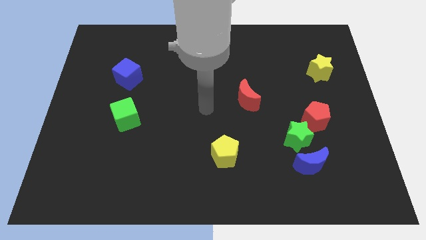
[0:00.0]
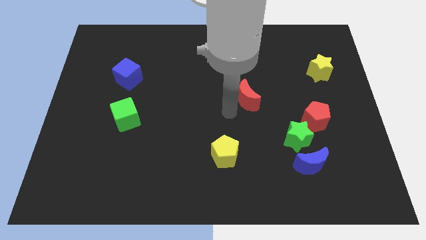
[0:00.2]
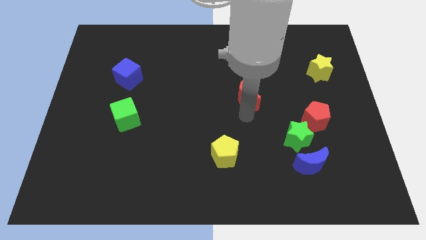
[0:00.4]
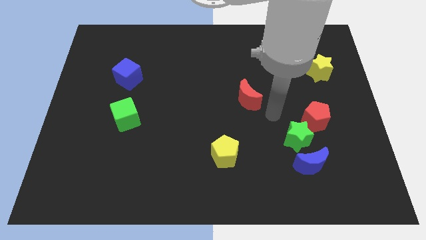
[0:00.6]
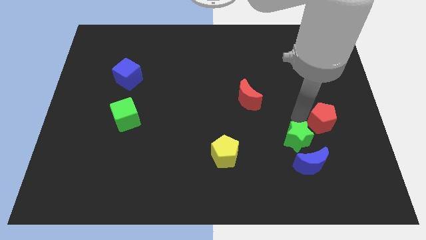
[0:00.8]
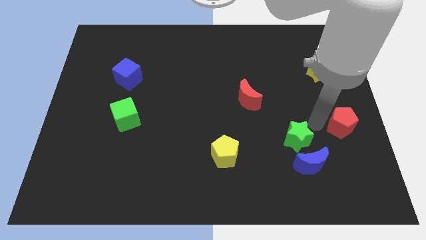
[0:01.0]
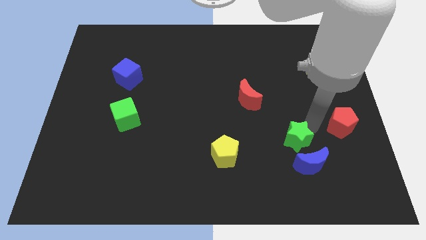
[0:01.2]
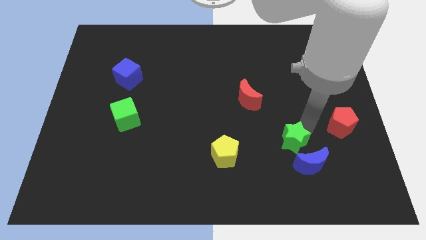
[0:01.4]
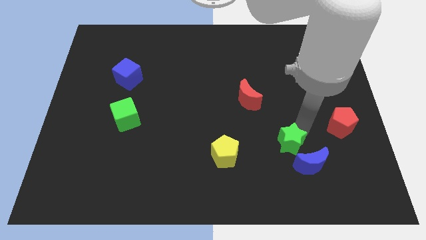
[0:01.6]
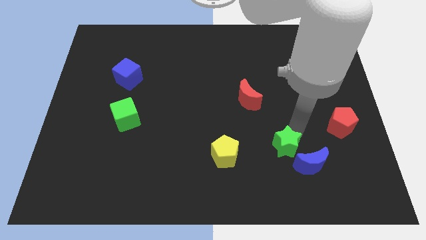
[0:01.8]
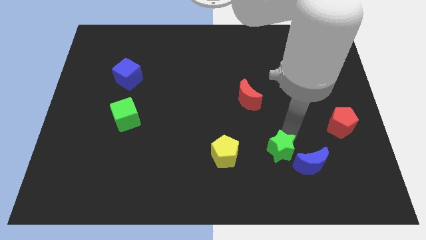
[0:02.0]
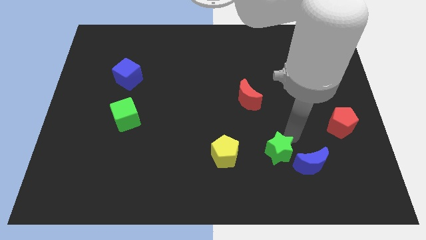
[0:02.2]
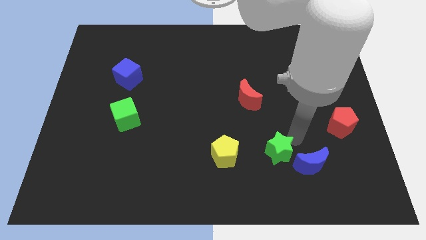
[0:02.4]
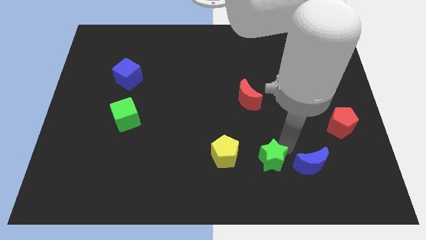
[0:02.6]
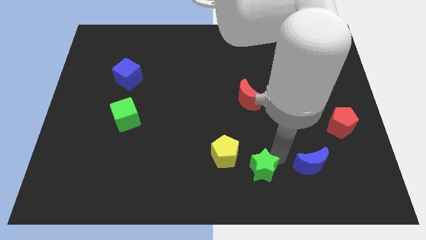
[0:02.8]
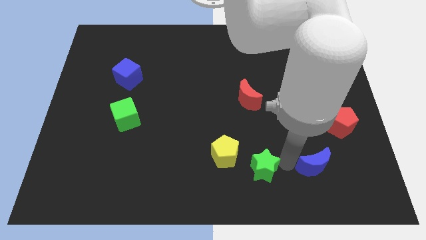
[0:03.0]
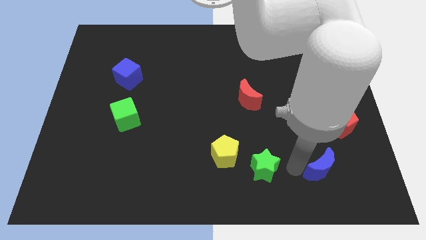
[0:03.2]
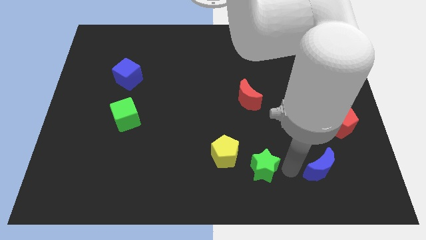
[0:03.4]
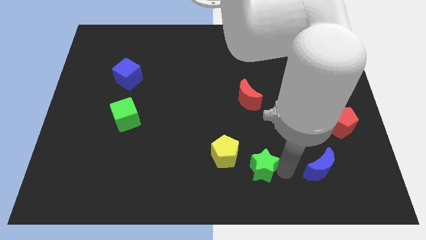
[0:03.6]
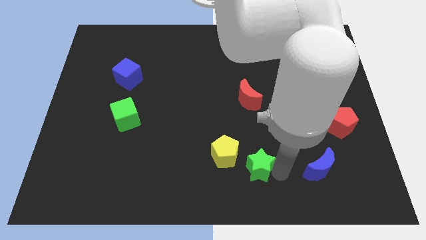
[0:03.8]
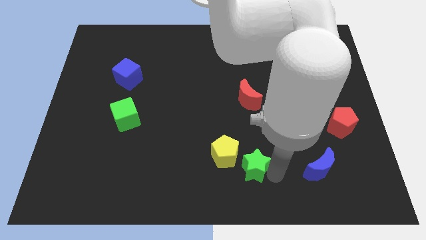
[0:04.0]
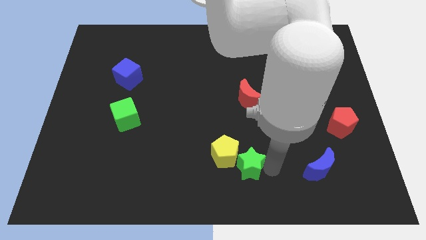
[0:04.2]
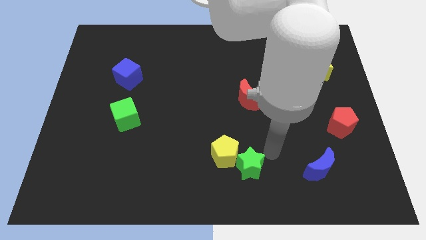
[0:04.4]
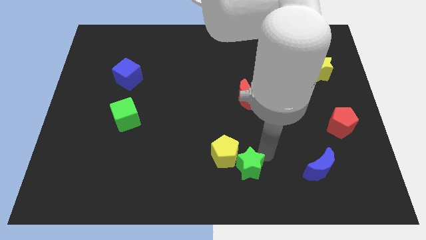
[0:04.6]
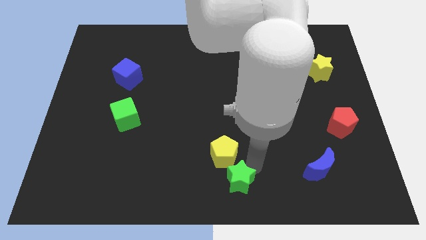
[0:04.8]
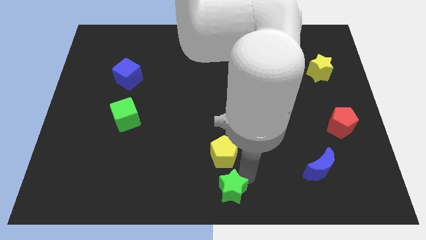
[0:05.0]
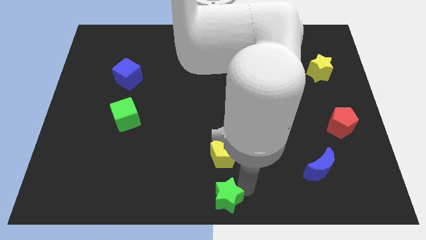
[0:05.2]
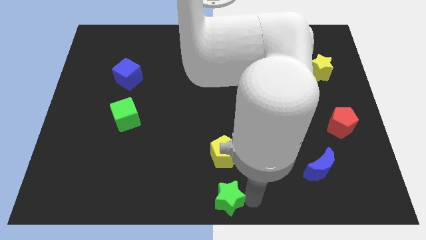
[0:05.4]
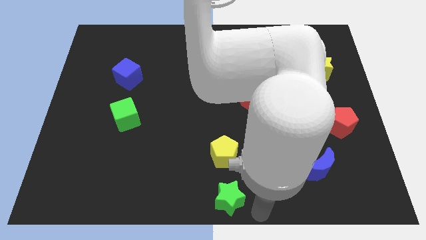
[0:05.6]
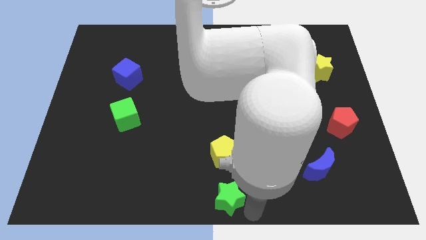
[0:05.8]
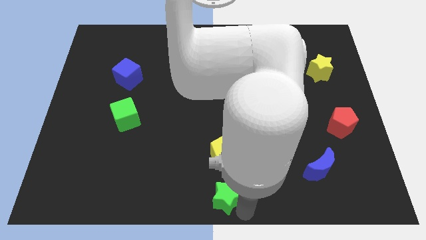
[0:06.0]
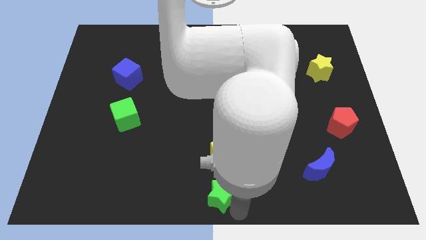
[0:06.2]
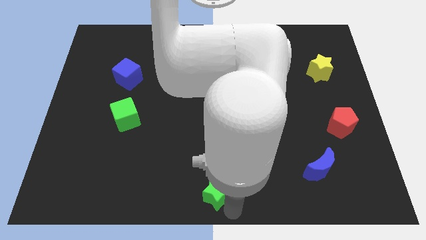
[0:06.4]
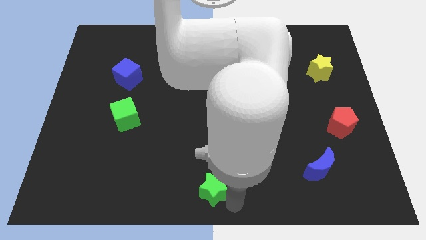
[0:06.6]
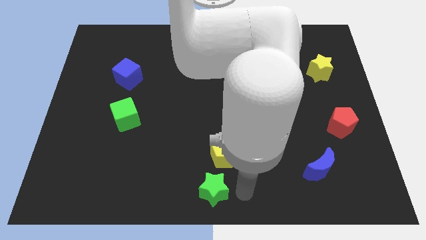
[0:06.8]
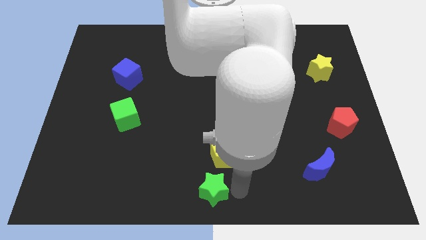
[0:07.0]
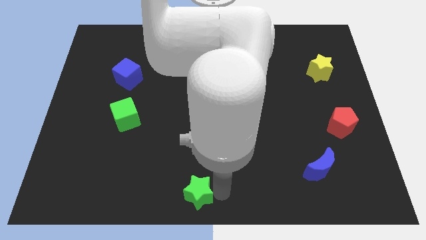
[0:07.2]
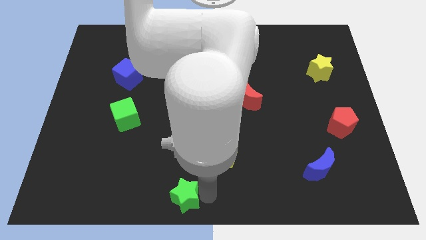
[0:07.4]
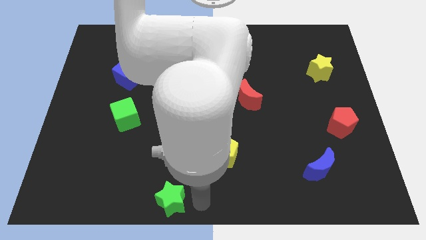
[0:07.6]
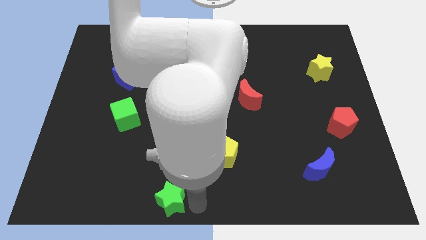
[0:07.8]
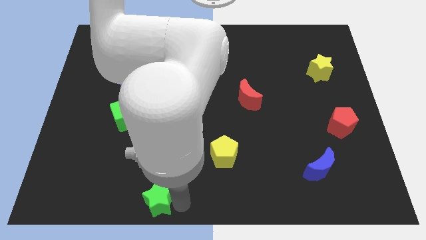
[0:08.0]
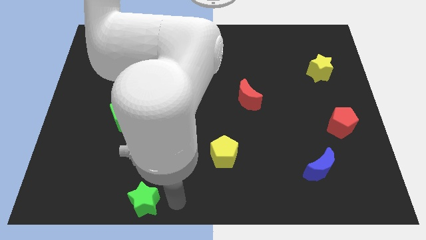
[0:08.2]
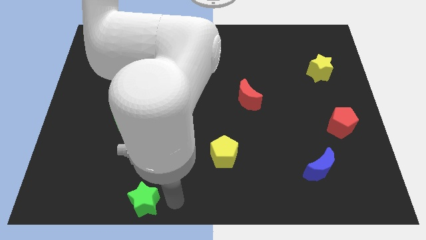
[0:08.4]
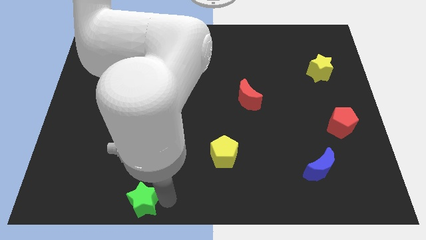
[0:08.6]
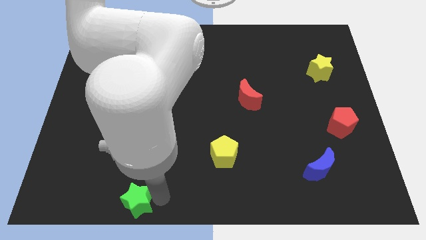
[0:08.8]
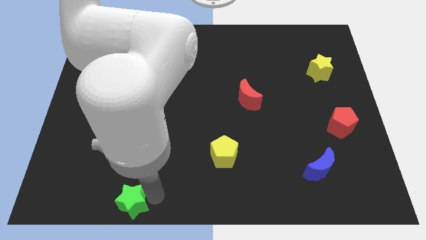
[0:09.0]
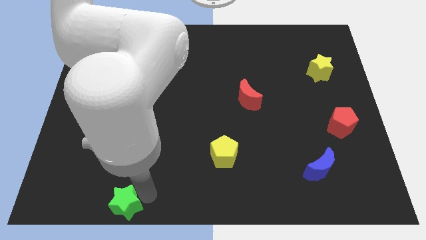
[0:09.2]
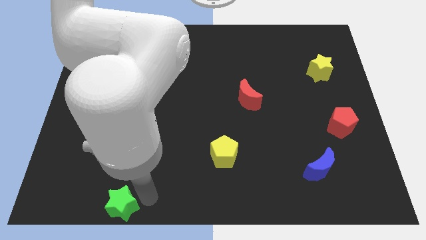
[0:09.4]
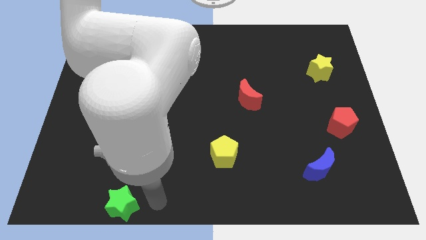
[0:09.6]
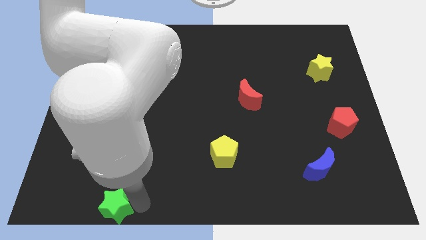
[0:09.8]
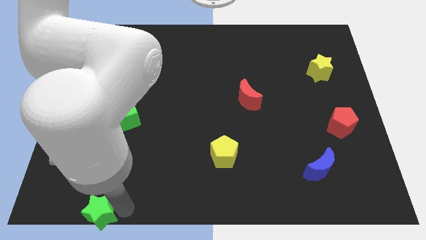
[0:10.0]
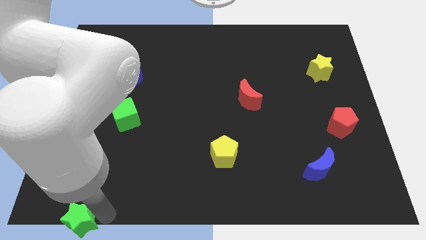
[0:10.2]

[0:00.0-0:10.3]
slide the green star to the bottom left

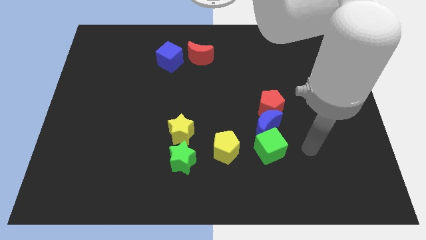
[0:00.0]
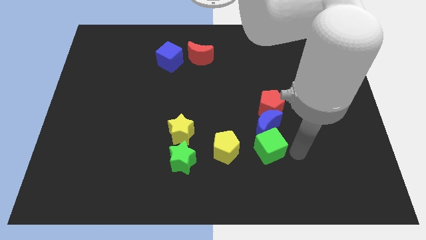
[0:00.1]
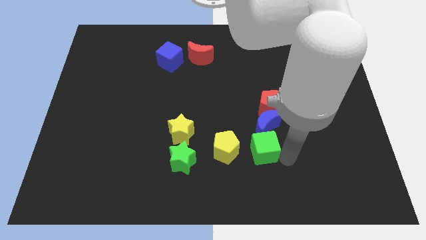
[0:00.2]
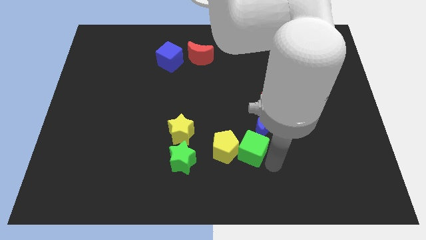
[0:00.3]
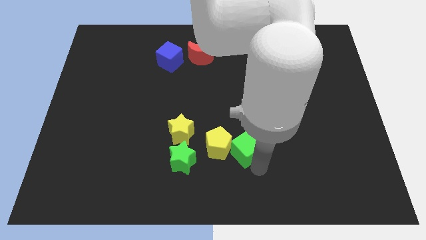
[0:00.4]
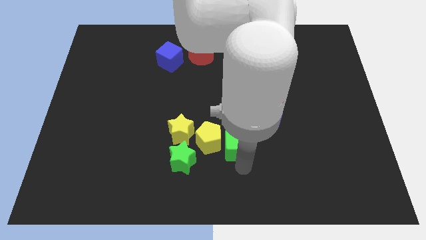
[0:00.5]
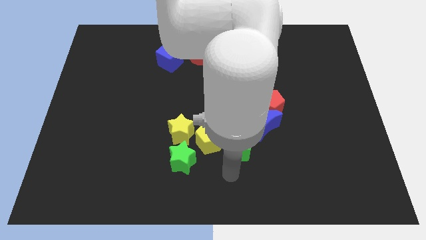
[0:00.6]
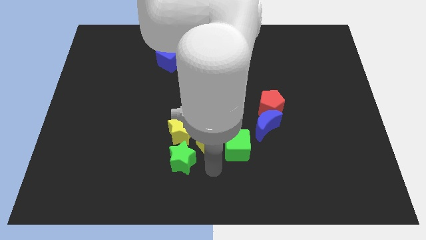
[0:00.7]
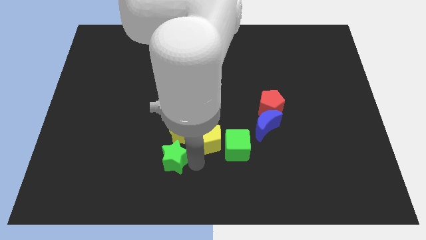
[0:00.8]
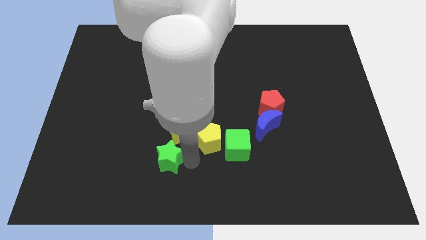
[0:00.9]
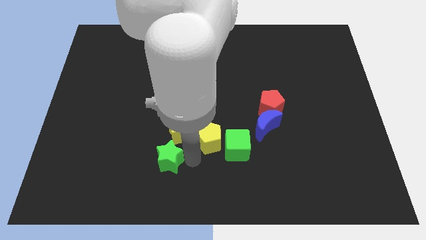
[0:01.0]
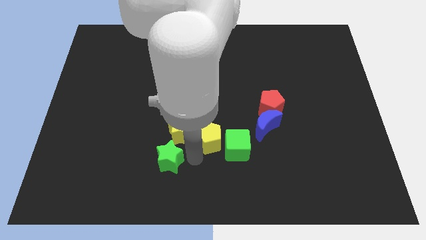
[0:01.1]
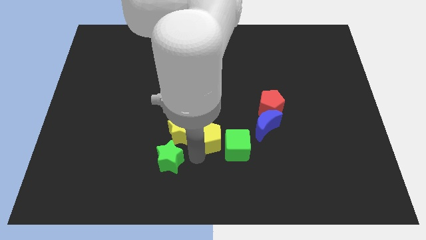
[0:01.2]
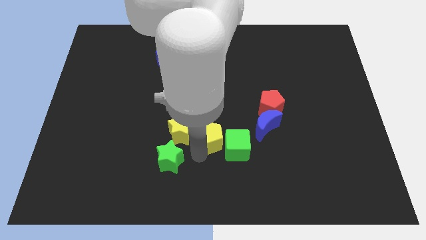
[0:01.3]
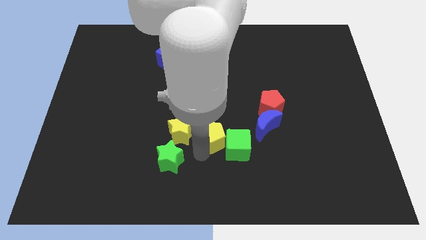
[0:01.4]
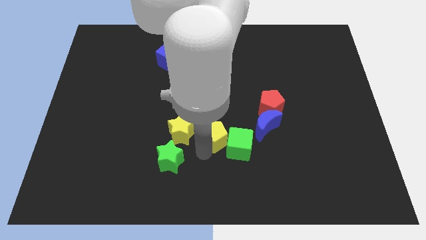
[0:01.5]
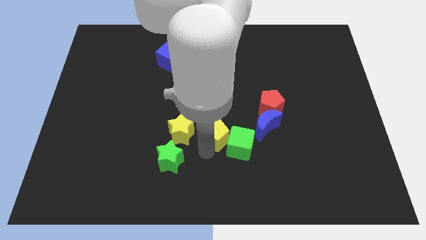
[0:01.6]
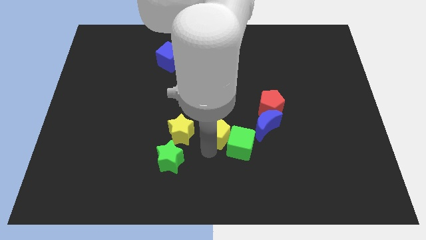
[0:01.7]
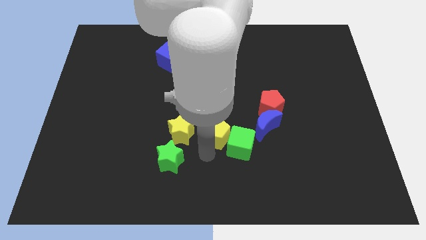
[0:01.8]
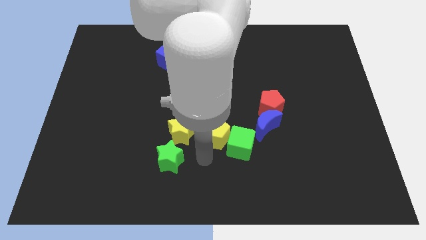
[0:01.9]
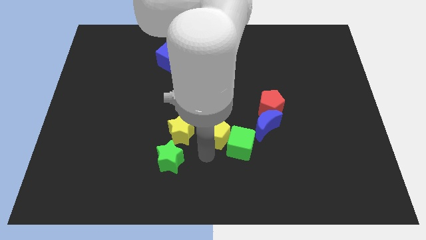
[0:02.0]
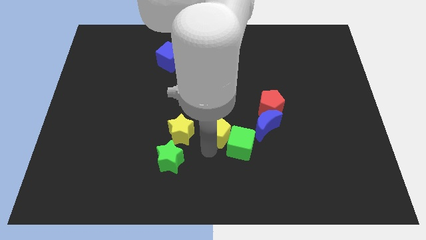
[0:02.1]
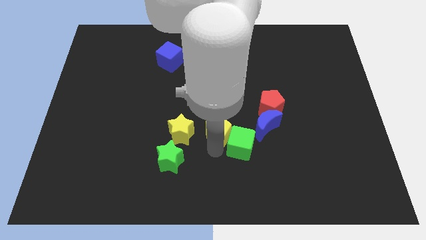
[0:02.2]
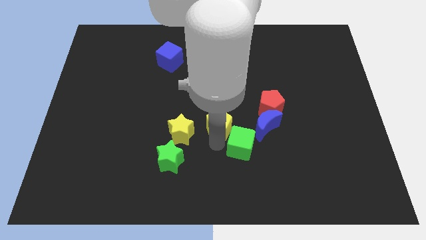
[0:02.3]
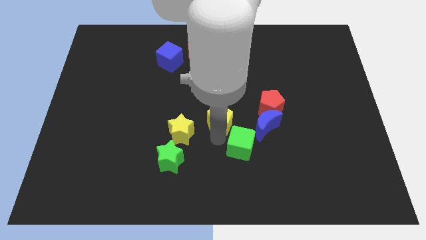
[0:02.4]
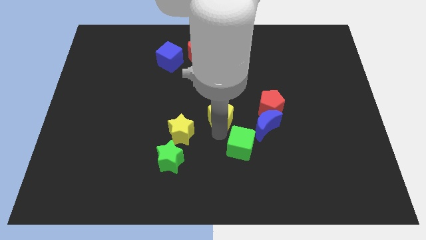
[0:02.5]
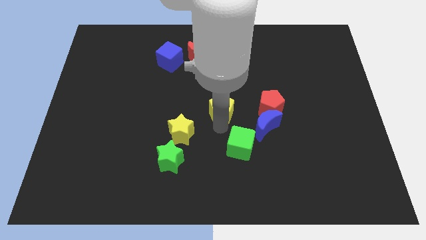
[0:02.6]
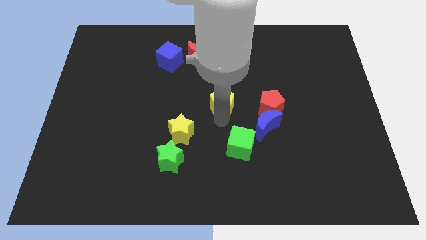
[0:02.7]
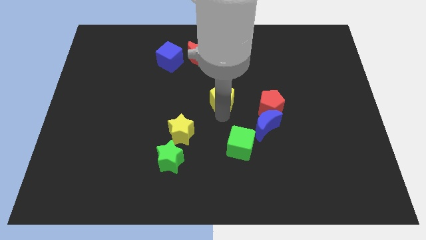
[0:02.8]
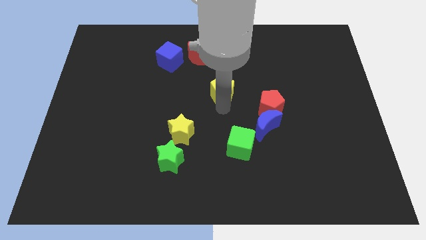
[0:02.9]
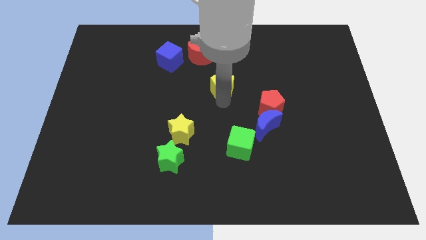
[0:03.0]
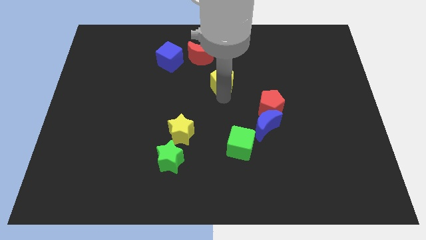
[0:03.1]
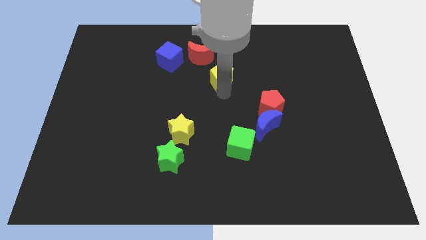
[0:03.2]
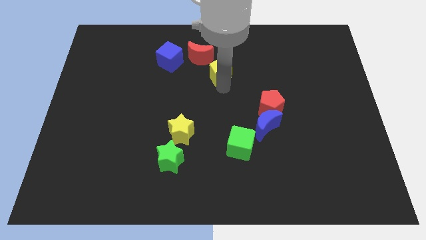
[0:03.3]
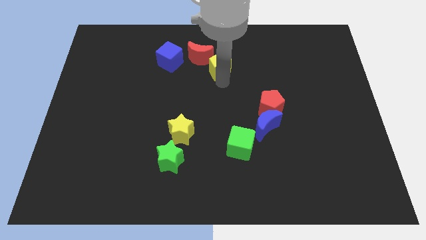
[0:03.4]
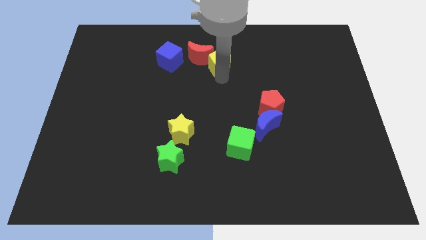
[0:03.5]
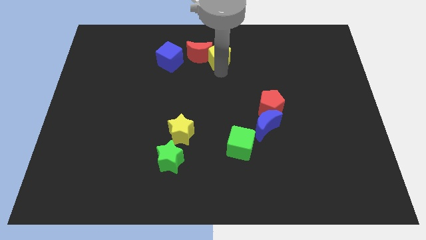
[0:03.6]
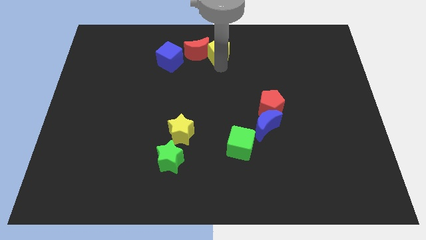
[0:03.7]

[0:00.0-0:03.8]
push the yellow pentagon to the top
